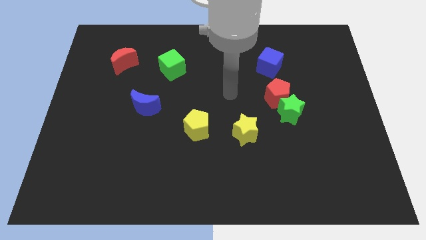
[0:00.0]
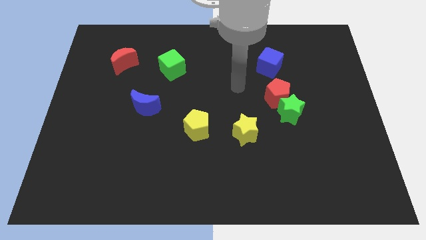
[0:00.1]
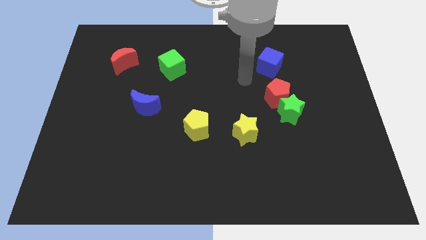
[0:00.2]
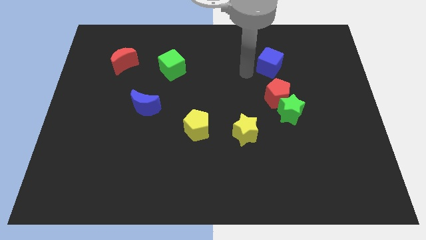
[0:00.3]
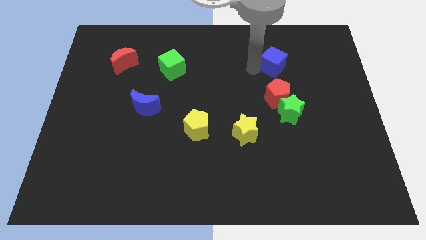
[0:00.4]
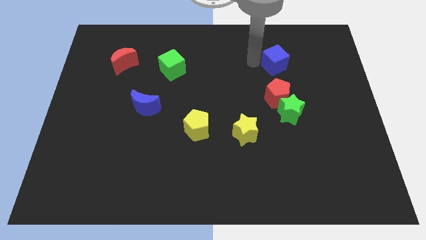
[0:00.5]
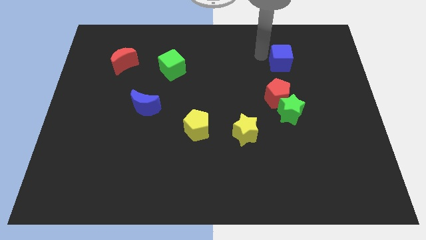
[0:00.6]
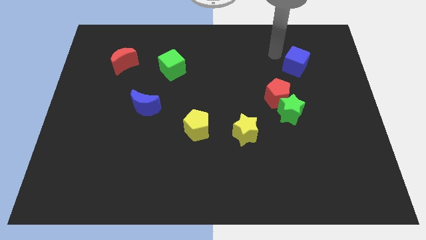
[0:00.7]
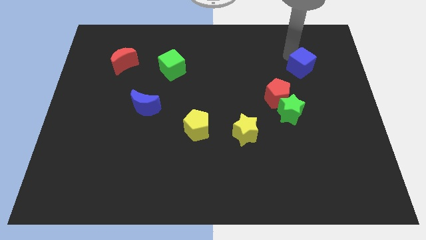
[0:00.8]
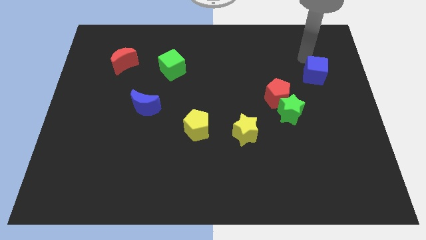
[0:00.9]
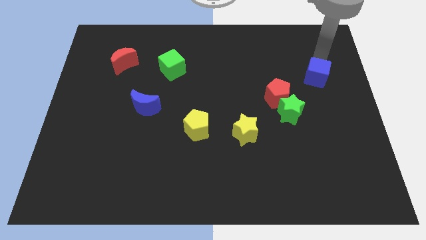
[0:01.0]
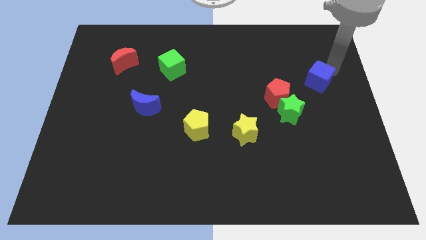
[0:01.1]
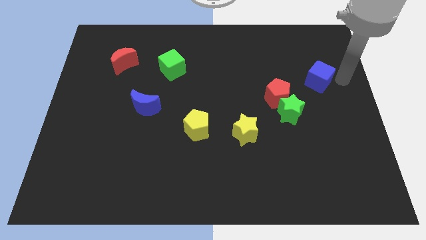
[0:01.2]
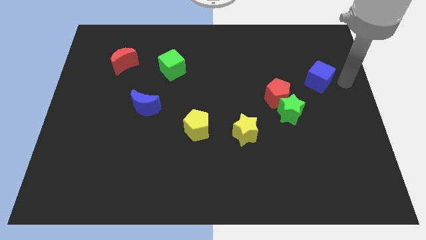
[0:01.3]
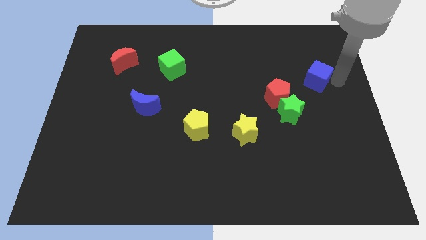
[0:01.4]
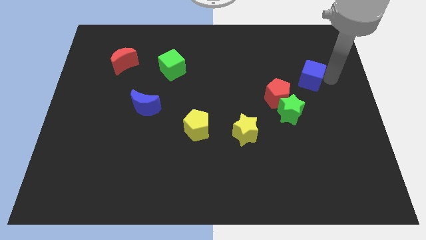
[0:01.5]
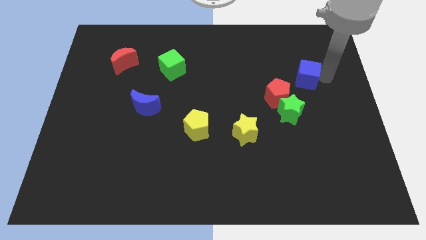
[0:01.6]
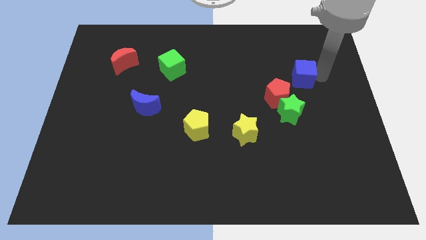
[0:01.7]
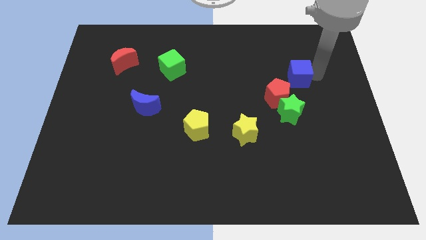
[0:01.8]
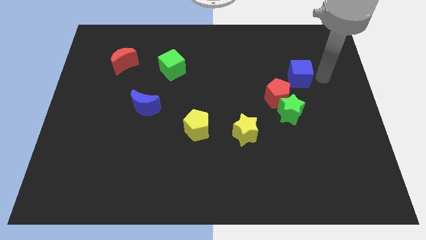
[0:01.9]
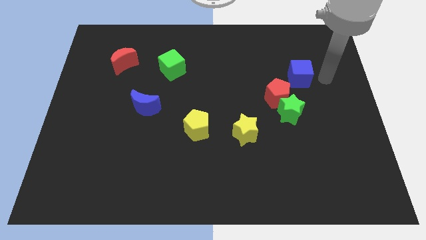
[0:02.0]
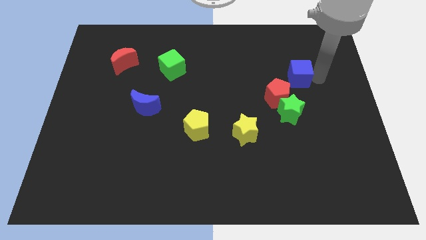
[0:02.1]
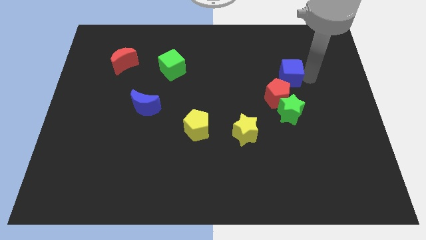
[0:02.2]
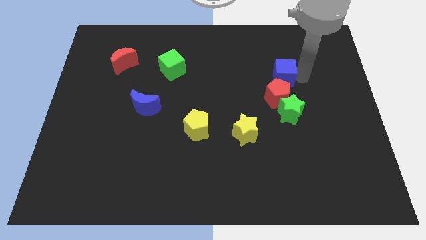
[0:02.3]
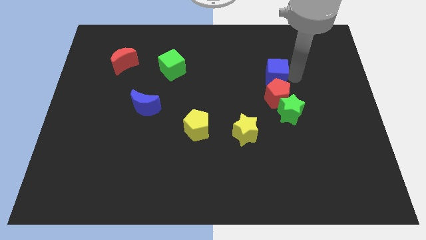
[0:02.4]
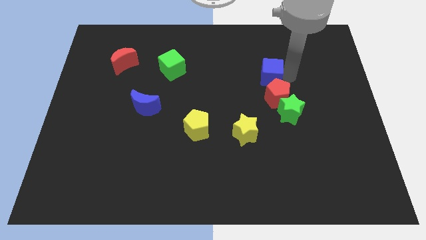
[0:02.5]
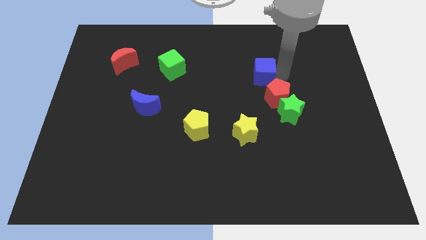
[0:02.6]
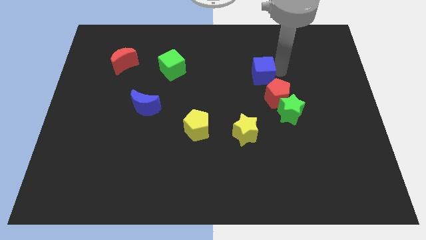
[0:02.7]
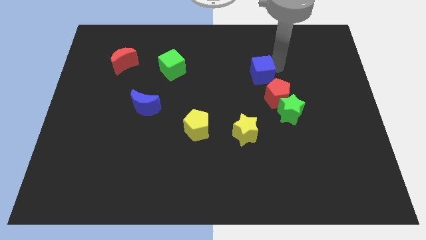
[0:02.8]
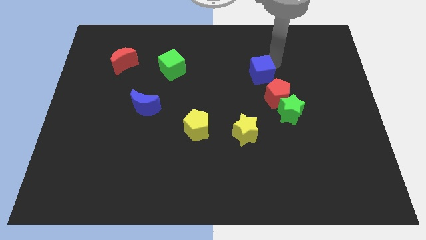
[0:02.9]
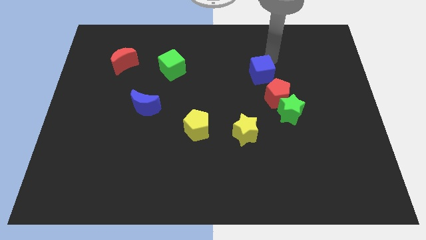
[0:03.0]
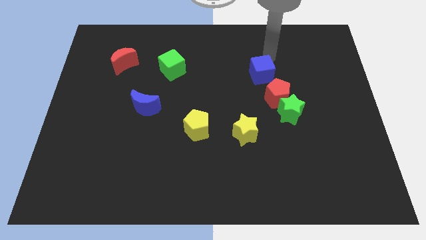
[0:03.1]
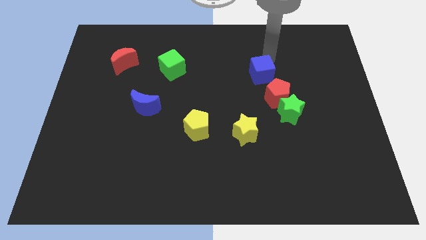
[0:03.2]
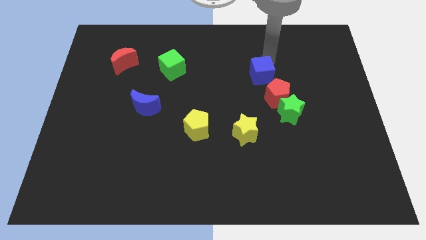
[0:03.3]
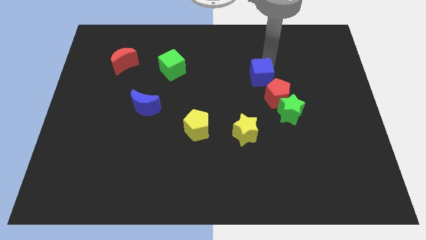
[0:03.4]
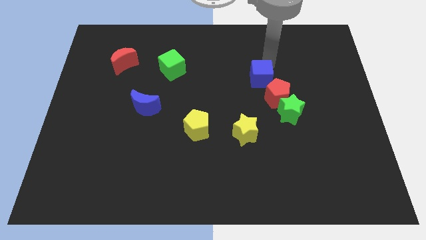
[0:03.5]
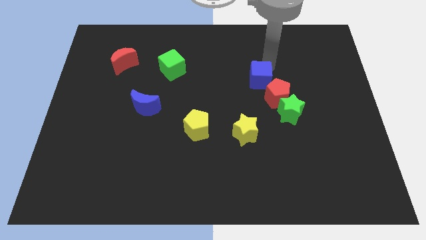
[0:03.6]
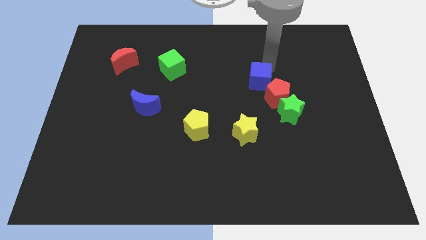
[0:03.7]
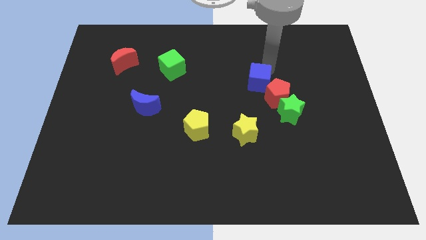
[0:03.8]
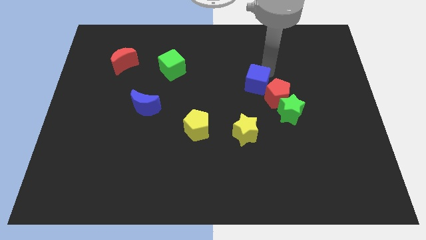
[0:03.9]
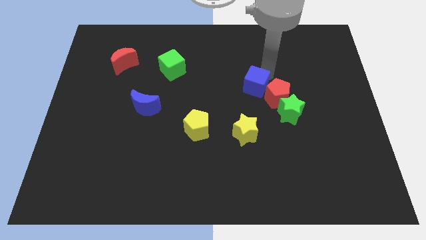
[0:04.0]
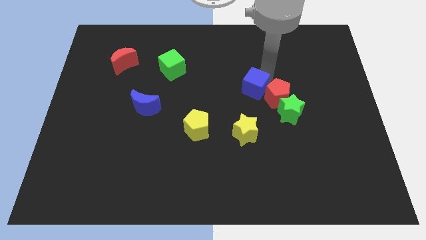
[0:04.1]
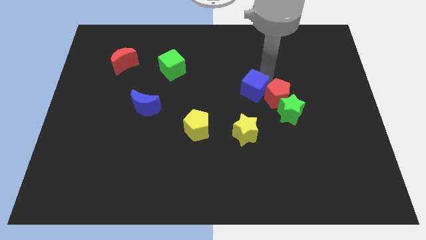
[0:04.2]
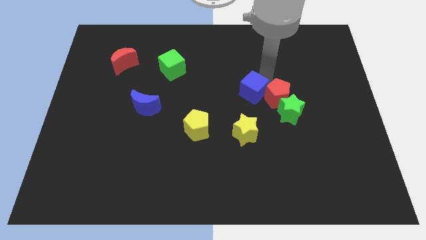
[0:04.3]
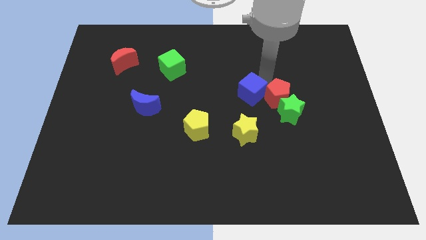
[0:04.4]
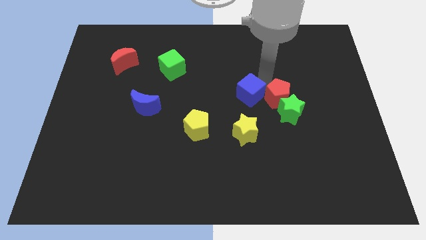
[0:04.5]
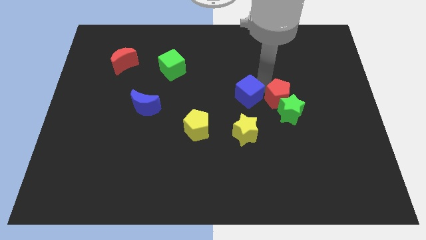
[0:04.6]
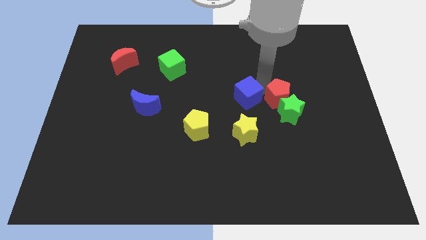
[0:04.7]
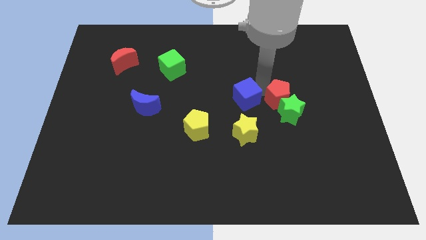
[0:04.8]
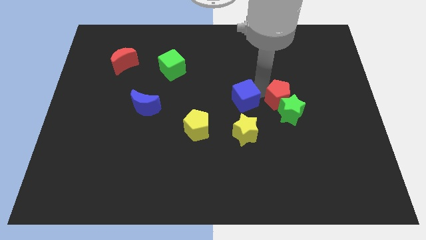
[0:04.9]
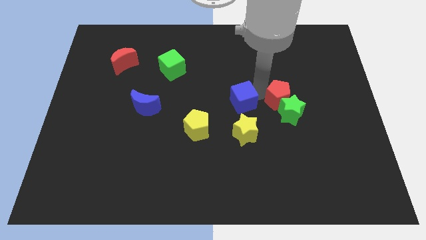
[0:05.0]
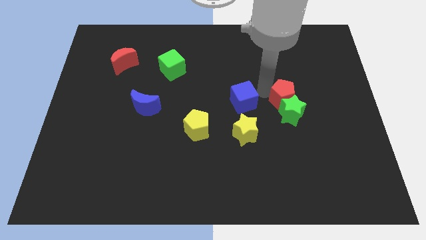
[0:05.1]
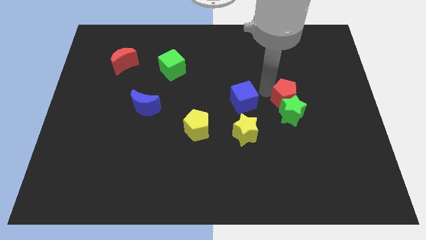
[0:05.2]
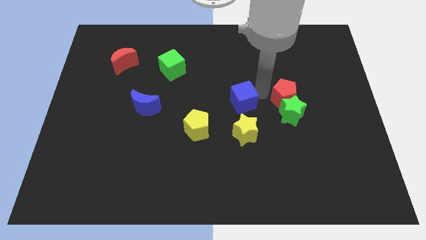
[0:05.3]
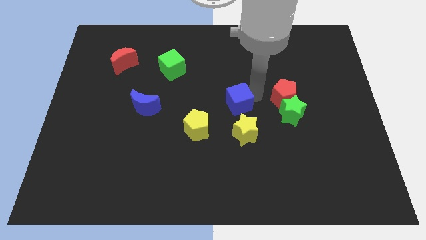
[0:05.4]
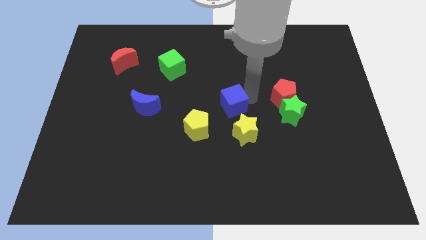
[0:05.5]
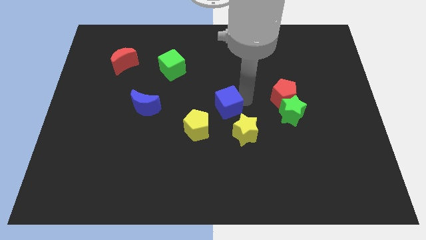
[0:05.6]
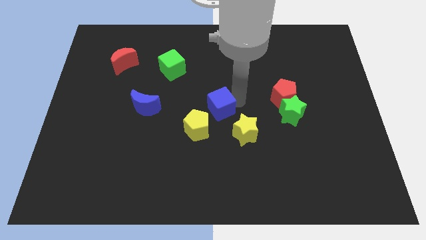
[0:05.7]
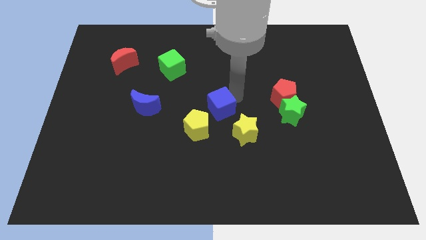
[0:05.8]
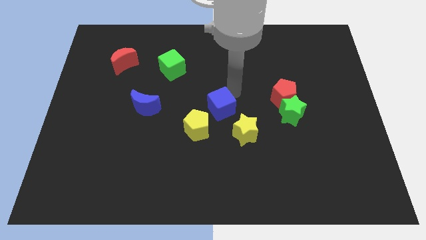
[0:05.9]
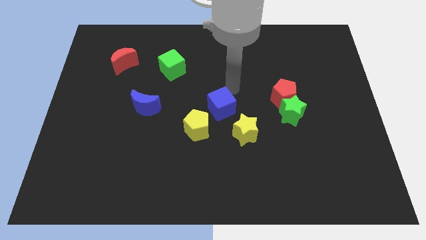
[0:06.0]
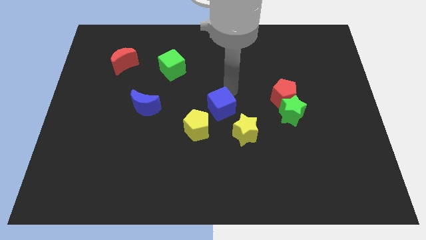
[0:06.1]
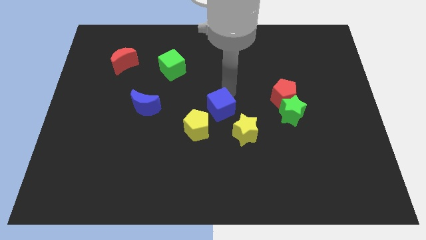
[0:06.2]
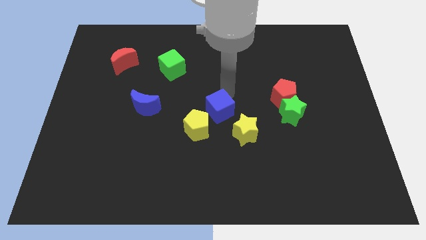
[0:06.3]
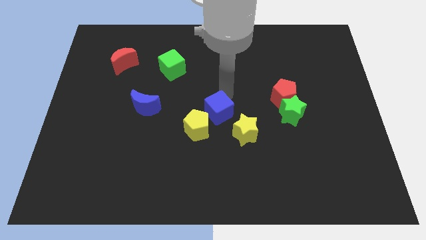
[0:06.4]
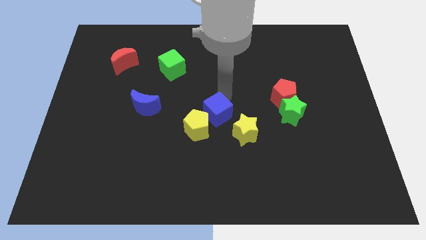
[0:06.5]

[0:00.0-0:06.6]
put the blue cube next to the yellow pentagon
